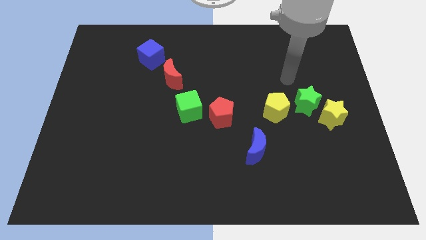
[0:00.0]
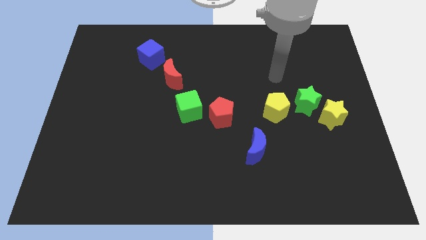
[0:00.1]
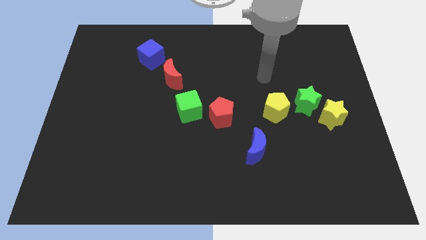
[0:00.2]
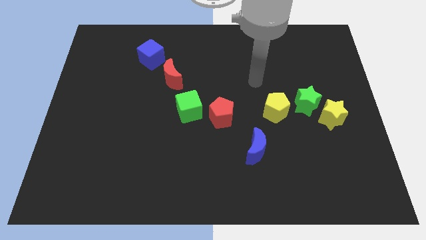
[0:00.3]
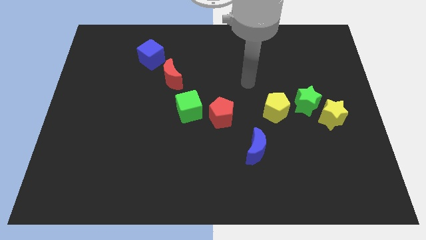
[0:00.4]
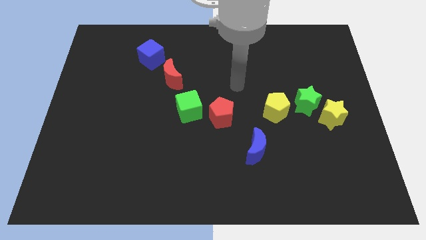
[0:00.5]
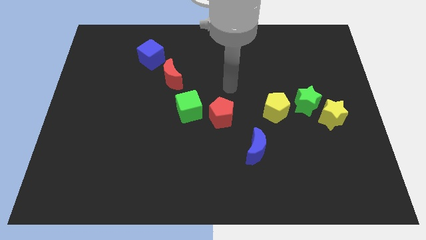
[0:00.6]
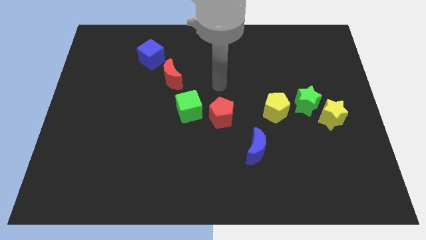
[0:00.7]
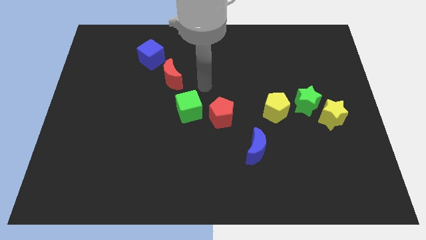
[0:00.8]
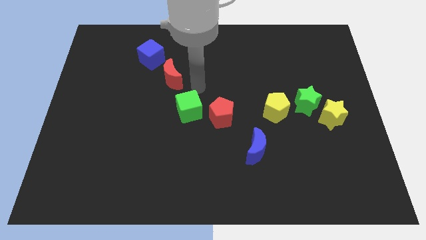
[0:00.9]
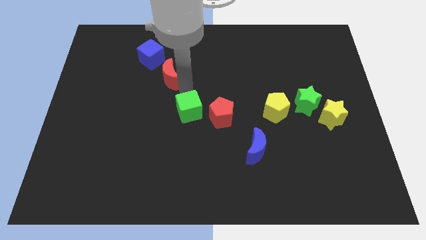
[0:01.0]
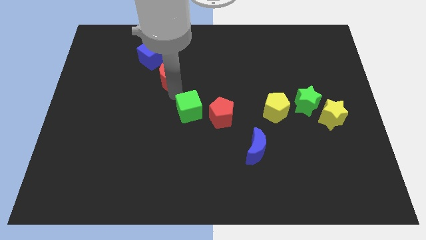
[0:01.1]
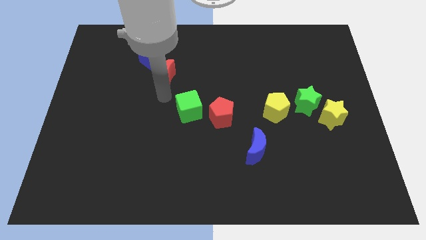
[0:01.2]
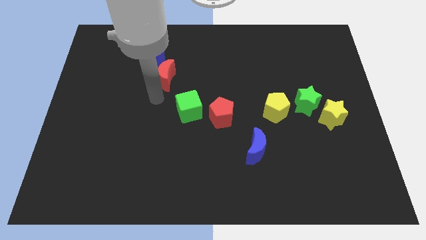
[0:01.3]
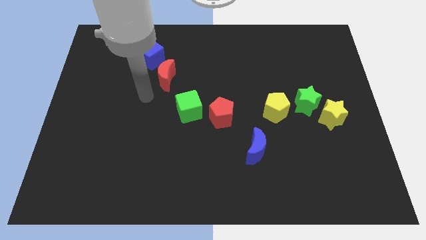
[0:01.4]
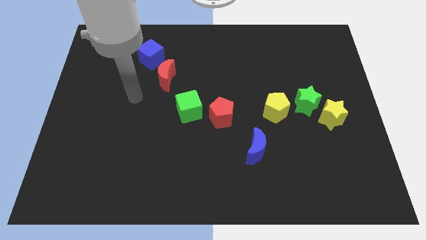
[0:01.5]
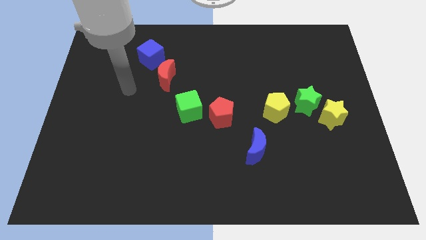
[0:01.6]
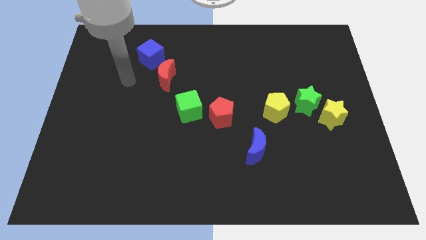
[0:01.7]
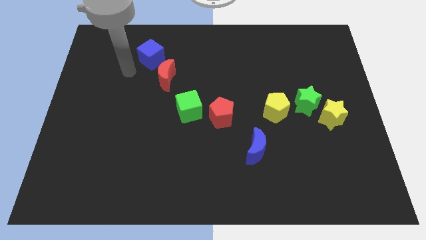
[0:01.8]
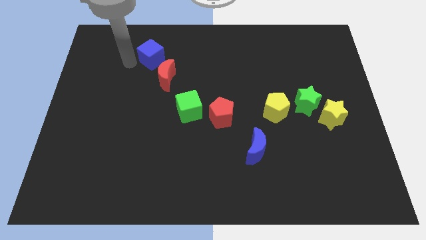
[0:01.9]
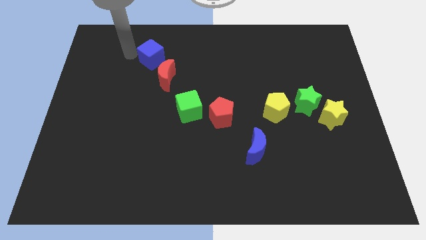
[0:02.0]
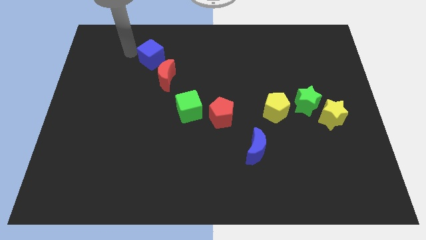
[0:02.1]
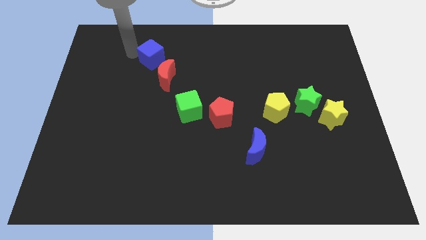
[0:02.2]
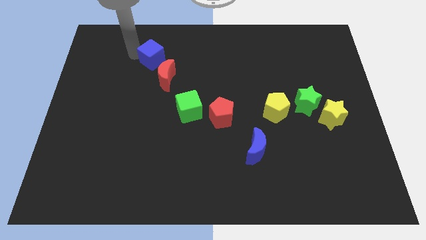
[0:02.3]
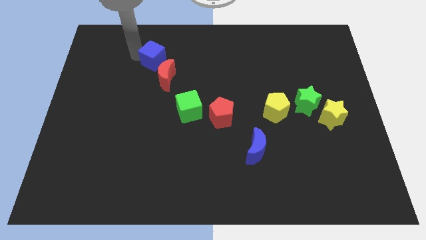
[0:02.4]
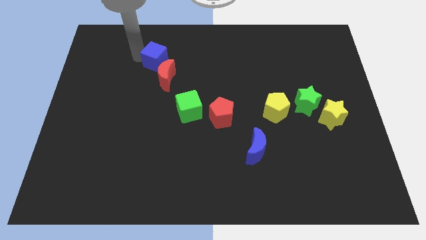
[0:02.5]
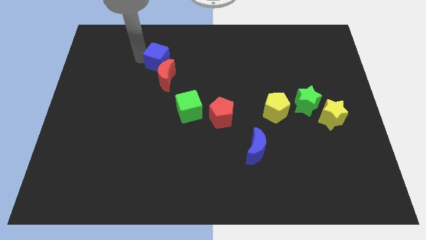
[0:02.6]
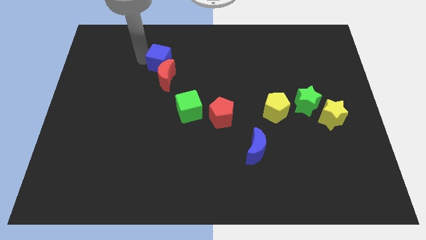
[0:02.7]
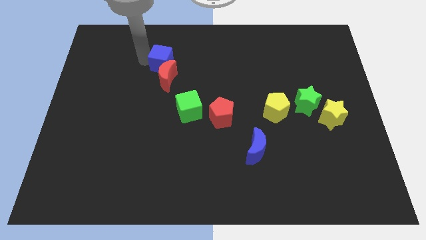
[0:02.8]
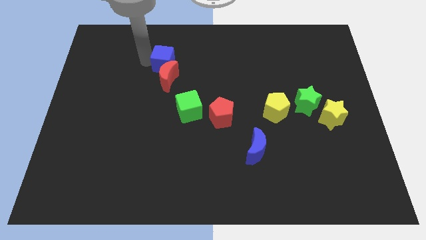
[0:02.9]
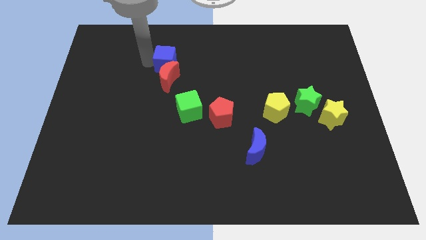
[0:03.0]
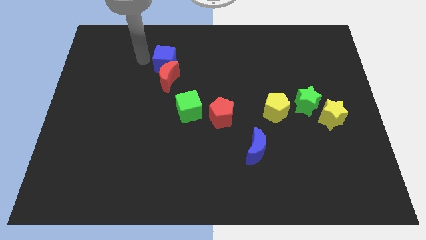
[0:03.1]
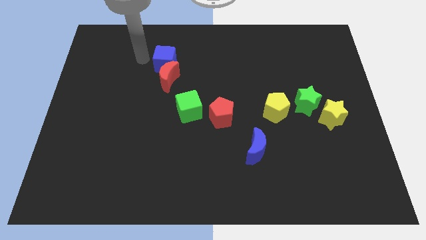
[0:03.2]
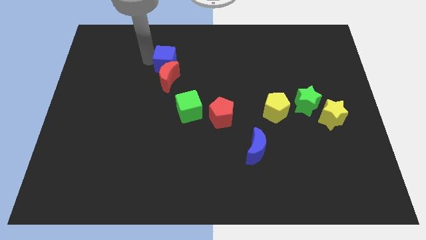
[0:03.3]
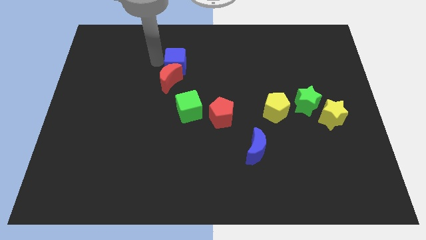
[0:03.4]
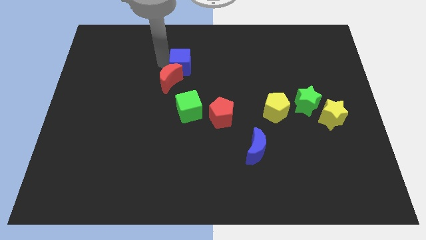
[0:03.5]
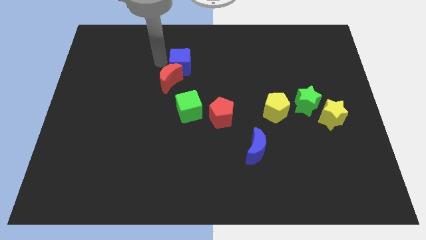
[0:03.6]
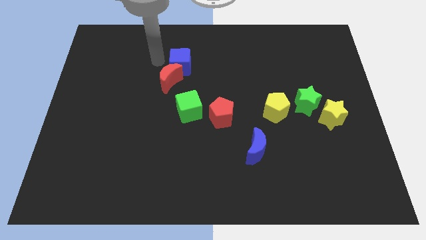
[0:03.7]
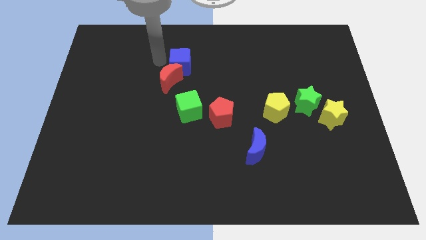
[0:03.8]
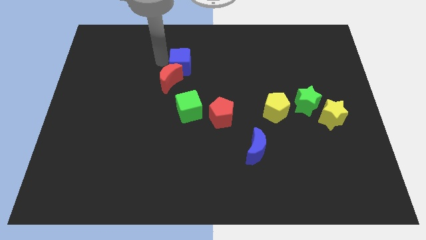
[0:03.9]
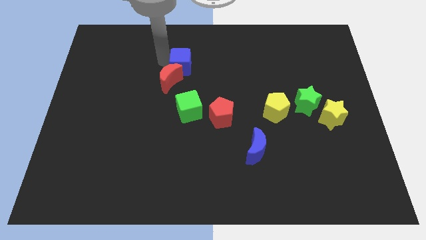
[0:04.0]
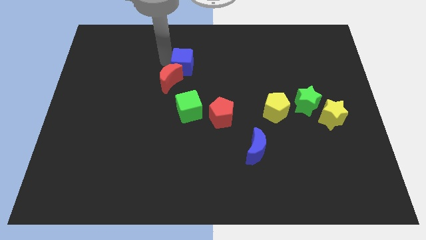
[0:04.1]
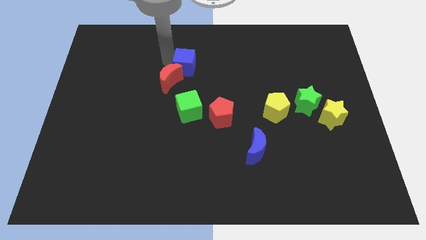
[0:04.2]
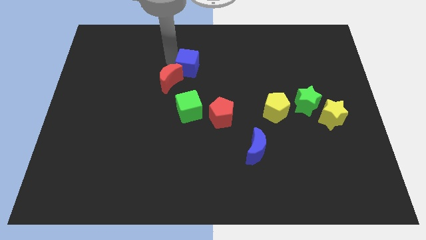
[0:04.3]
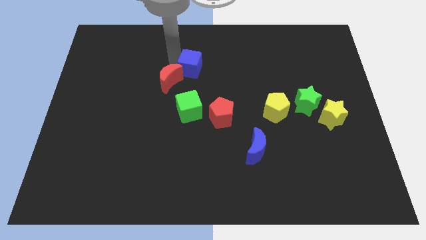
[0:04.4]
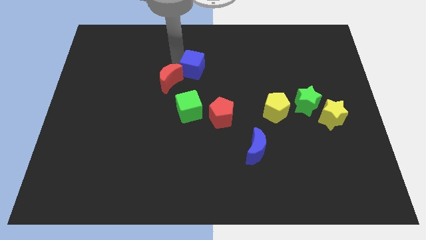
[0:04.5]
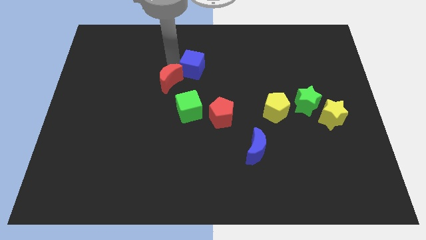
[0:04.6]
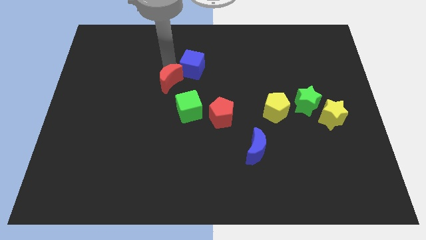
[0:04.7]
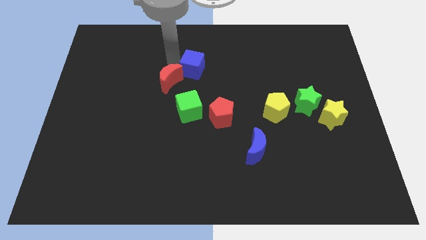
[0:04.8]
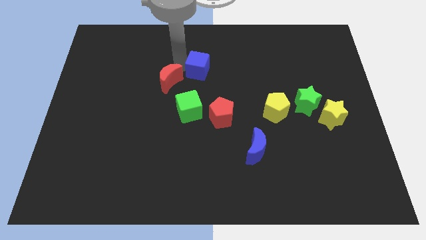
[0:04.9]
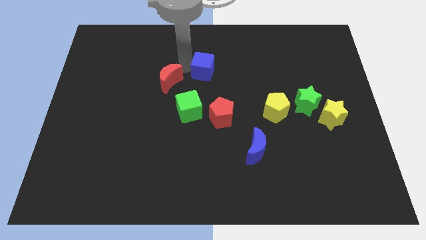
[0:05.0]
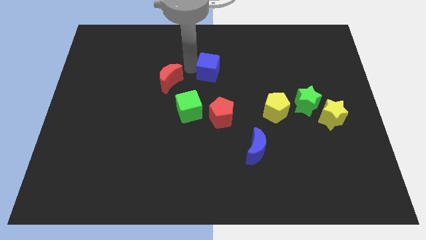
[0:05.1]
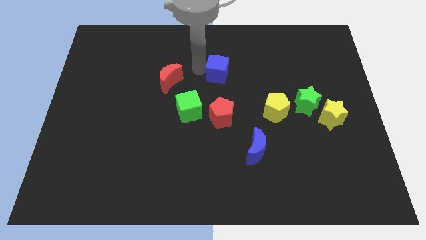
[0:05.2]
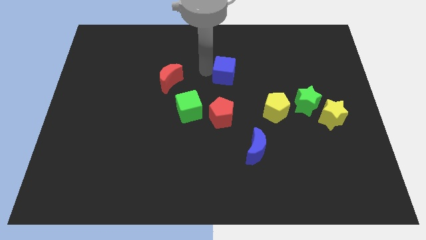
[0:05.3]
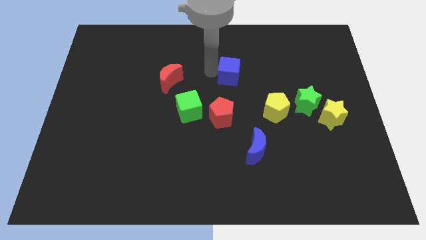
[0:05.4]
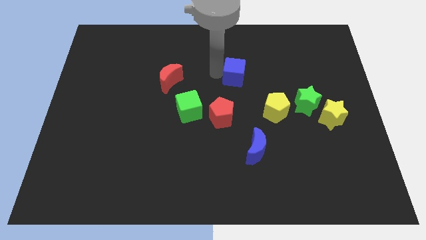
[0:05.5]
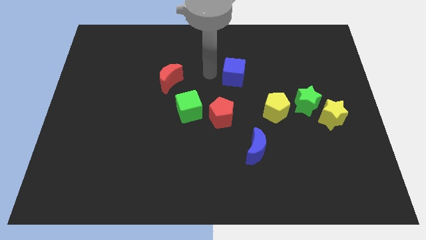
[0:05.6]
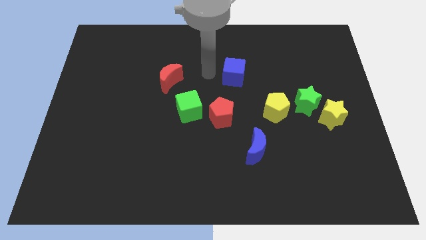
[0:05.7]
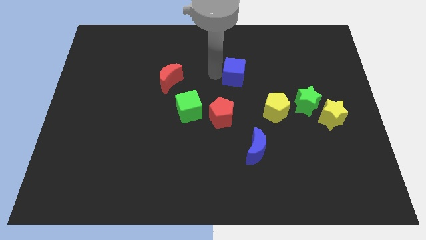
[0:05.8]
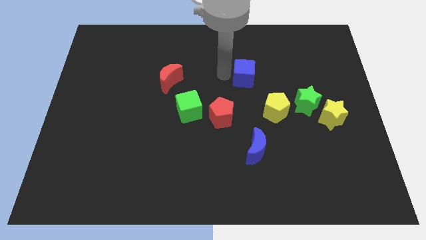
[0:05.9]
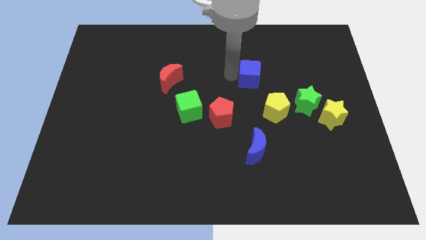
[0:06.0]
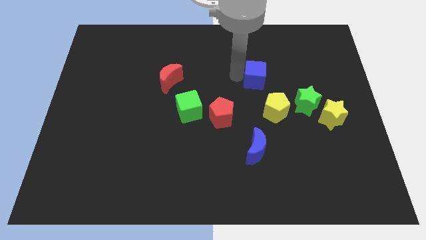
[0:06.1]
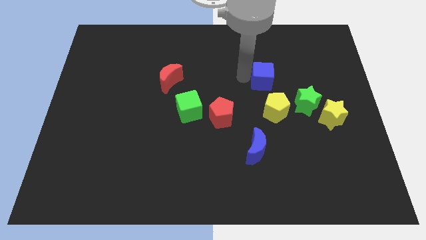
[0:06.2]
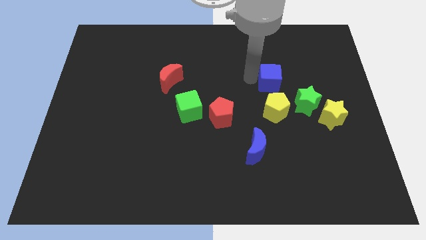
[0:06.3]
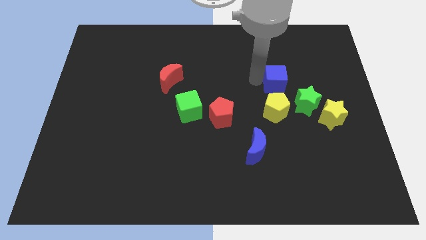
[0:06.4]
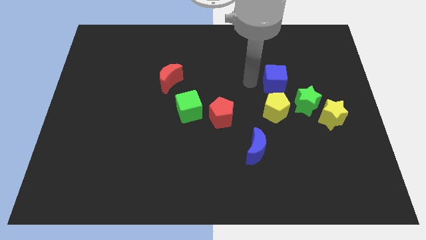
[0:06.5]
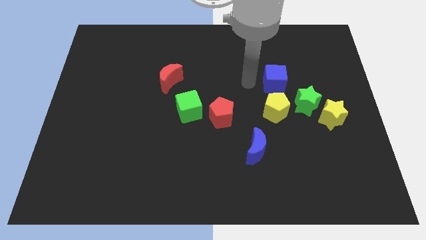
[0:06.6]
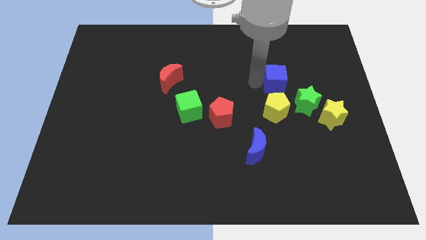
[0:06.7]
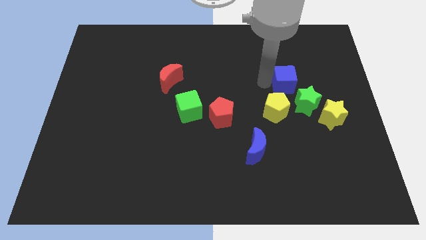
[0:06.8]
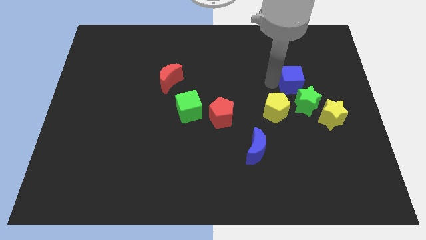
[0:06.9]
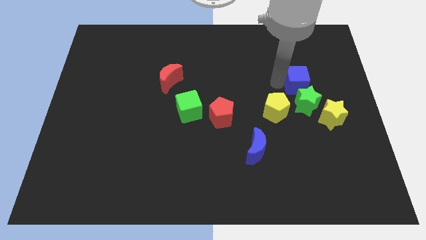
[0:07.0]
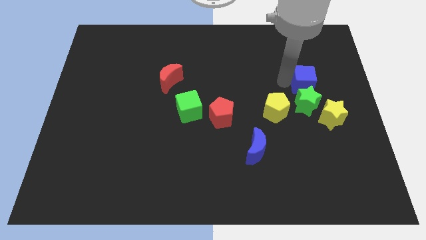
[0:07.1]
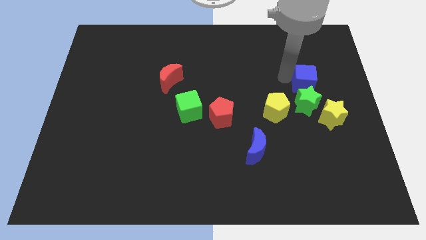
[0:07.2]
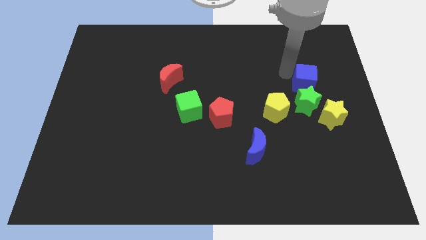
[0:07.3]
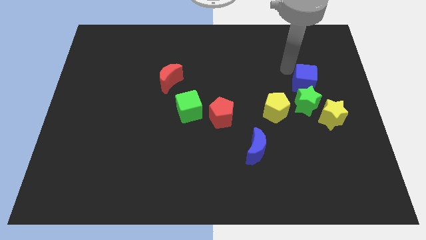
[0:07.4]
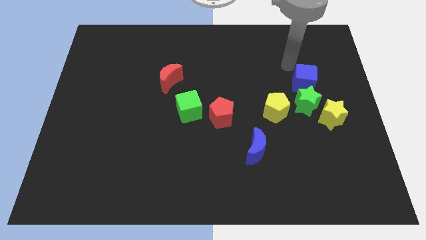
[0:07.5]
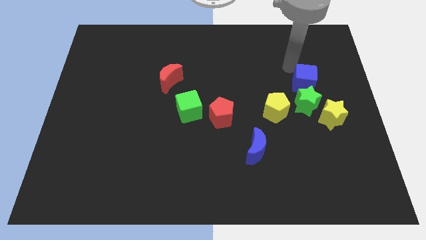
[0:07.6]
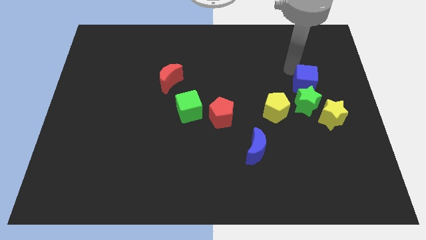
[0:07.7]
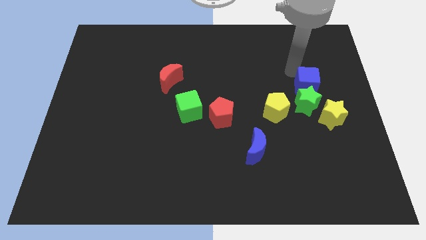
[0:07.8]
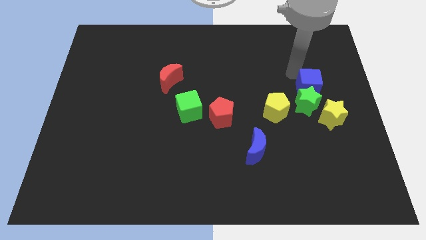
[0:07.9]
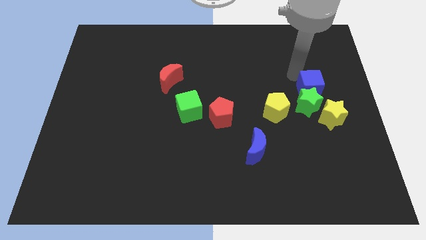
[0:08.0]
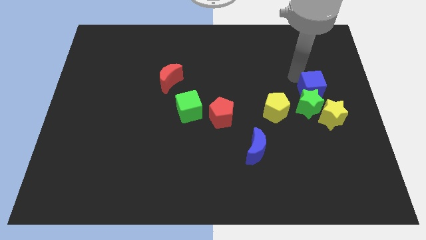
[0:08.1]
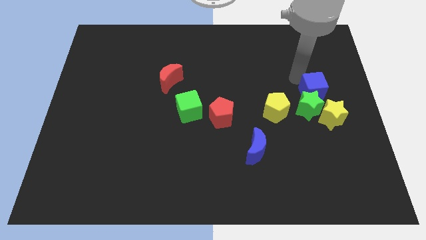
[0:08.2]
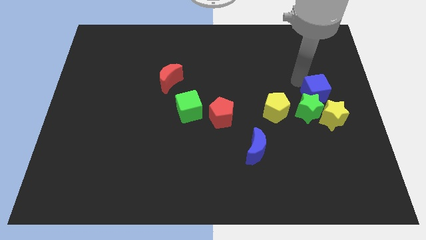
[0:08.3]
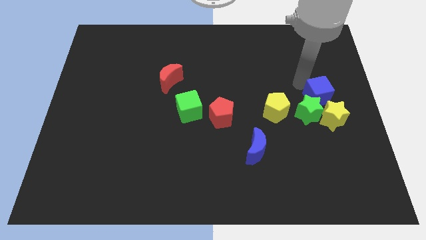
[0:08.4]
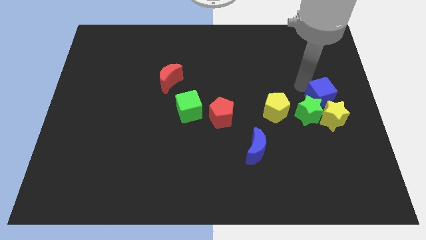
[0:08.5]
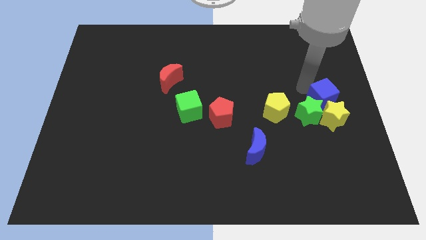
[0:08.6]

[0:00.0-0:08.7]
slide the blue cube next to the yellow star
